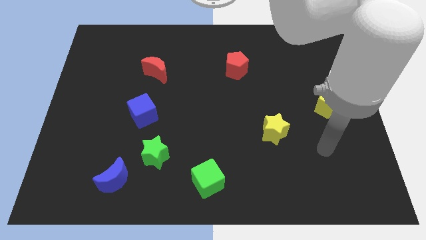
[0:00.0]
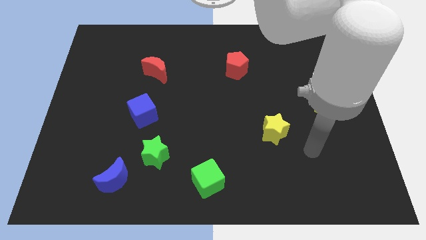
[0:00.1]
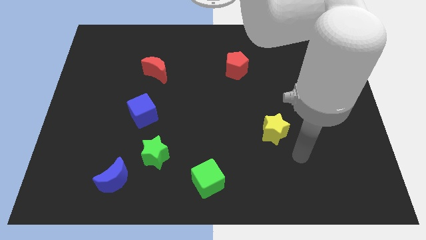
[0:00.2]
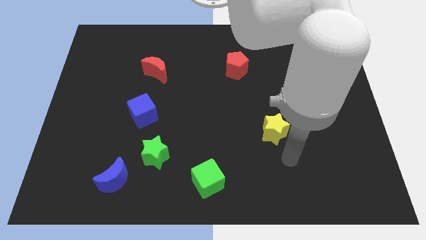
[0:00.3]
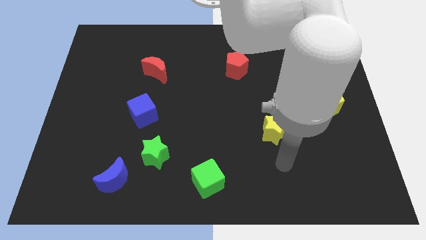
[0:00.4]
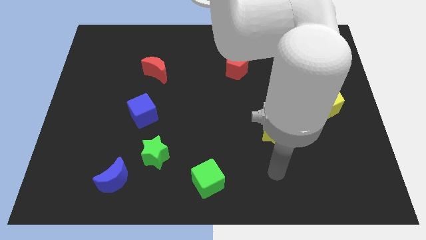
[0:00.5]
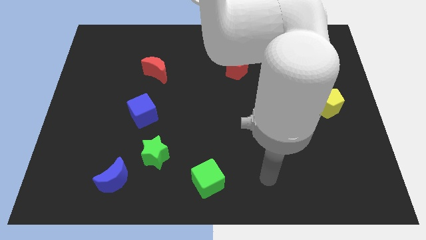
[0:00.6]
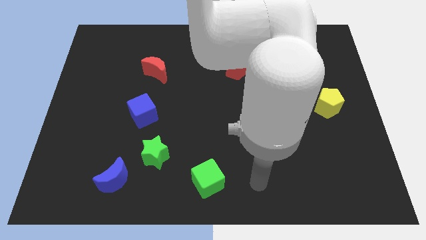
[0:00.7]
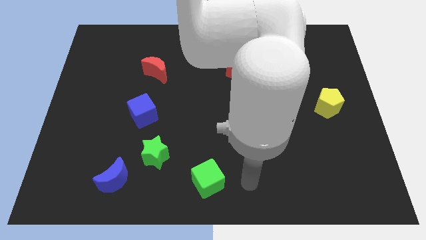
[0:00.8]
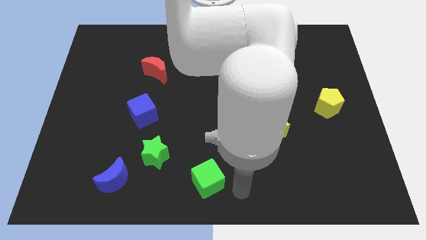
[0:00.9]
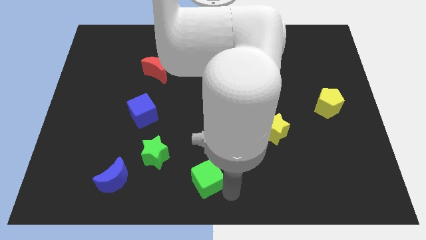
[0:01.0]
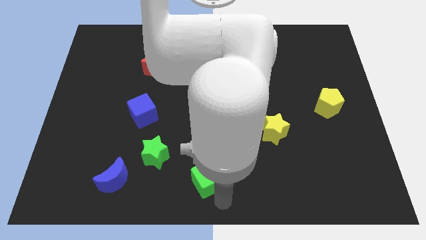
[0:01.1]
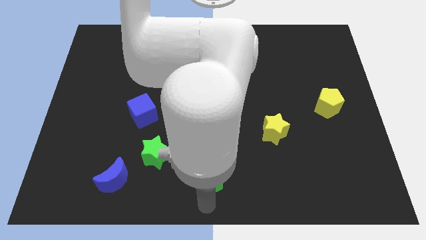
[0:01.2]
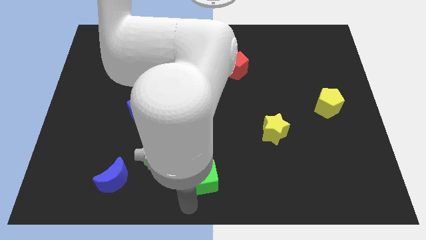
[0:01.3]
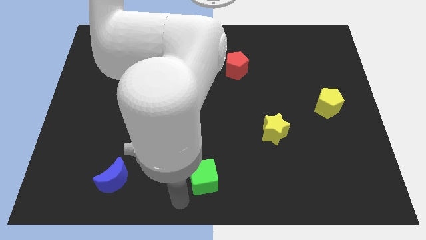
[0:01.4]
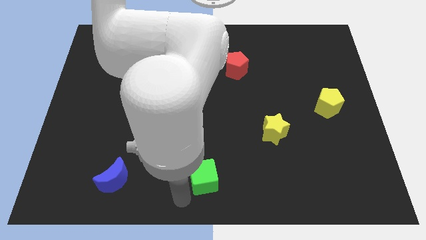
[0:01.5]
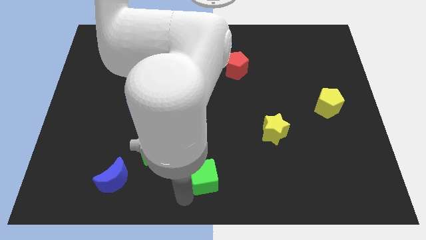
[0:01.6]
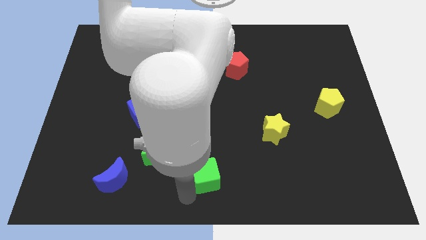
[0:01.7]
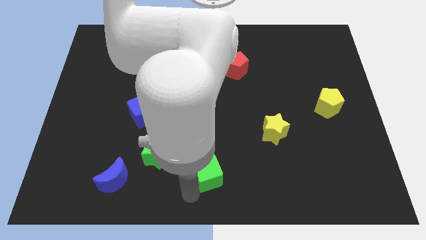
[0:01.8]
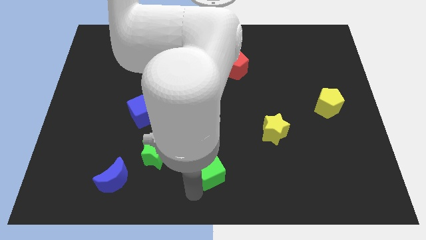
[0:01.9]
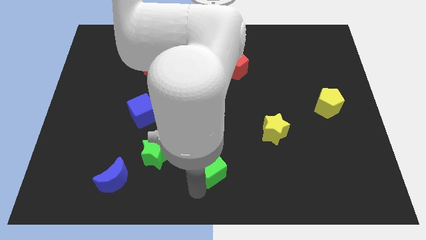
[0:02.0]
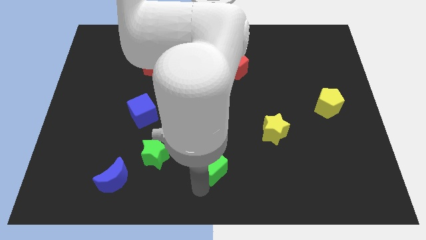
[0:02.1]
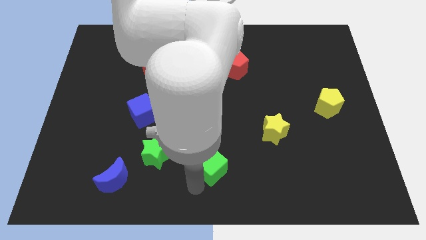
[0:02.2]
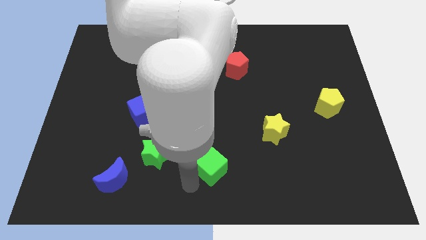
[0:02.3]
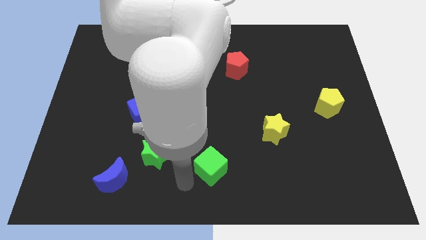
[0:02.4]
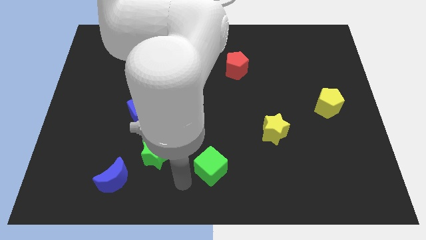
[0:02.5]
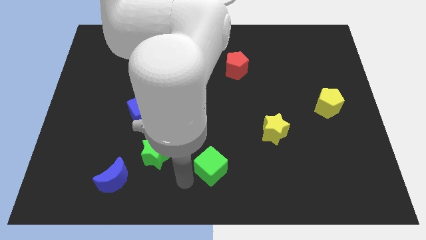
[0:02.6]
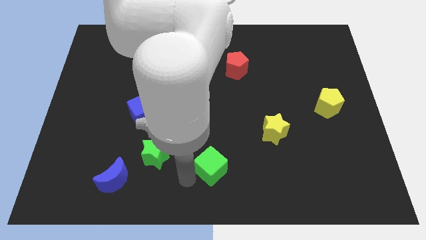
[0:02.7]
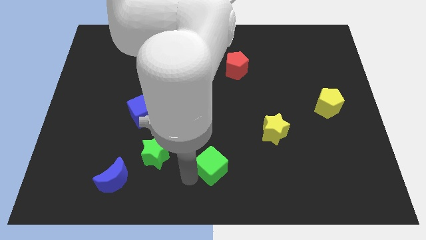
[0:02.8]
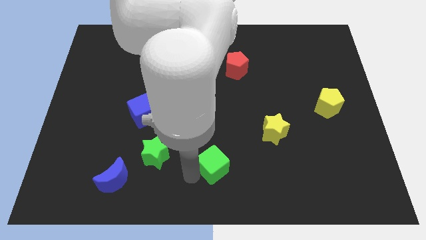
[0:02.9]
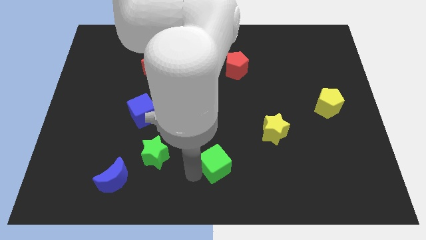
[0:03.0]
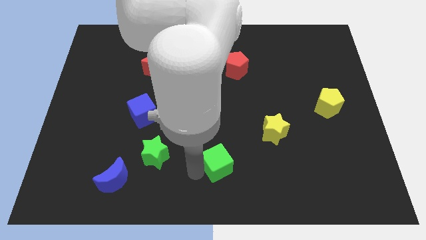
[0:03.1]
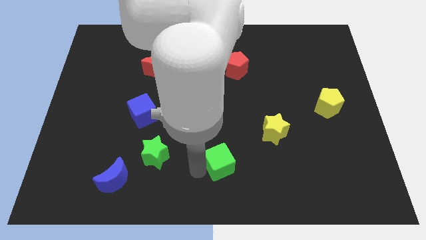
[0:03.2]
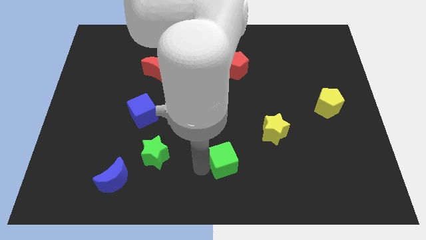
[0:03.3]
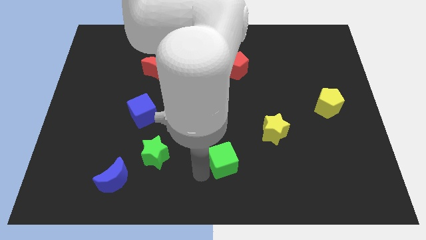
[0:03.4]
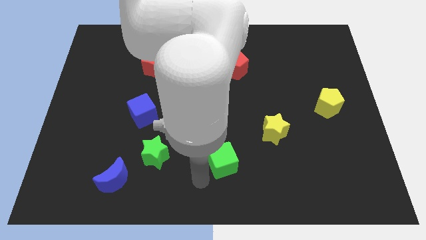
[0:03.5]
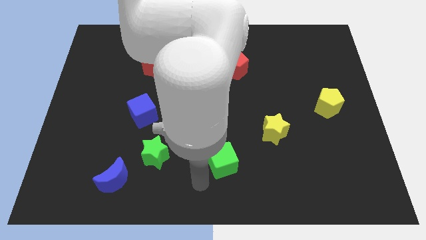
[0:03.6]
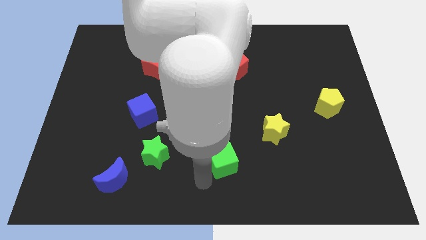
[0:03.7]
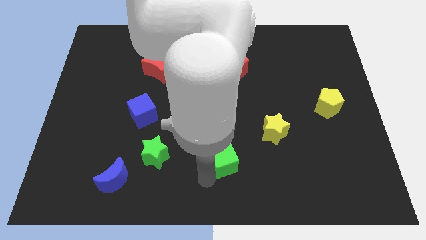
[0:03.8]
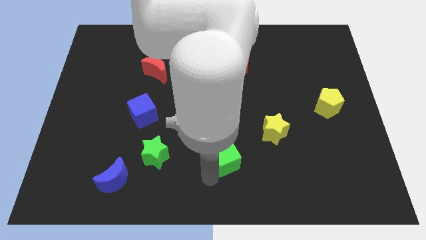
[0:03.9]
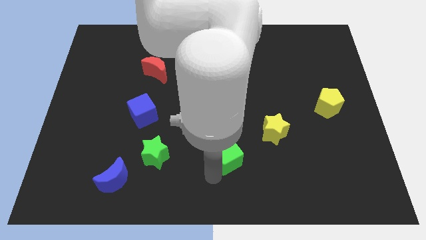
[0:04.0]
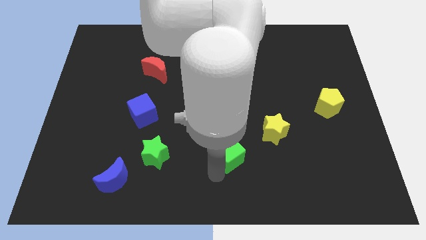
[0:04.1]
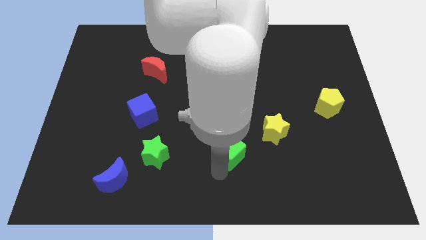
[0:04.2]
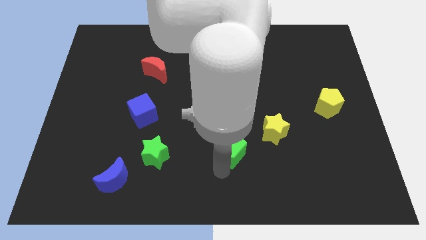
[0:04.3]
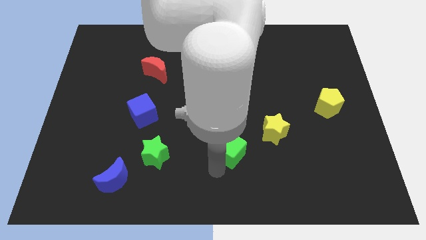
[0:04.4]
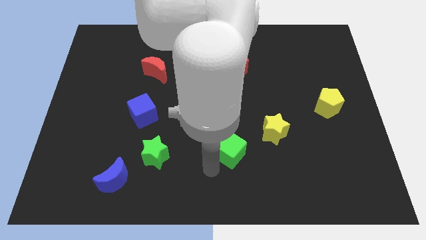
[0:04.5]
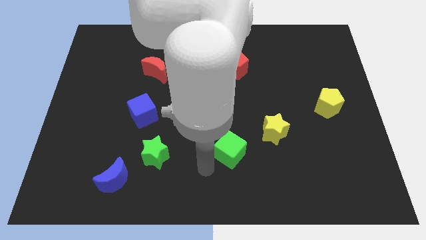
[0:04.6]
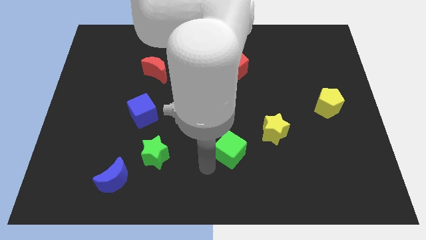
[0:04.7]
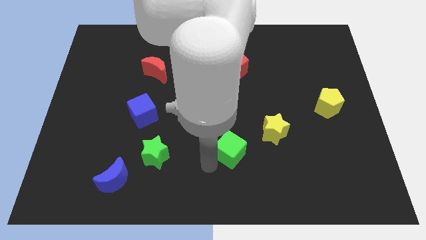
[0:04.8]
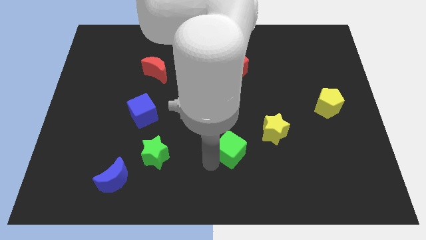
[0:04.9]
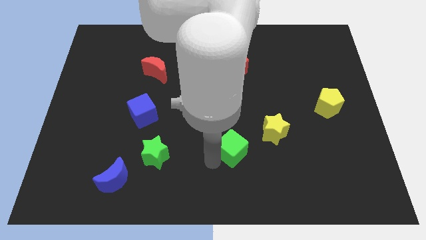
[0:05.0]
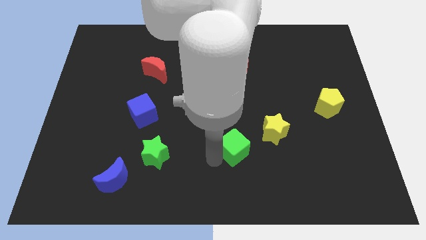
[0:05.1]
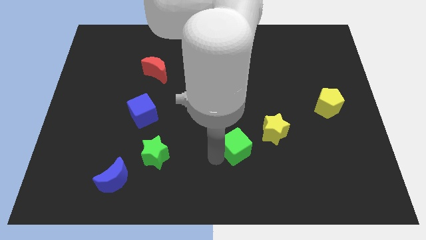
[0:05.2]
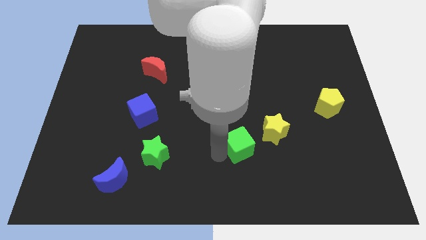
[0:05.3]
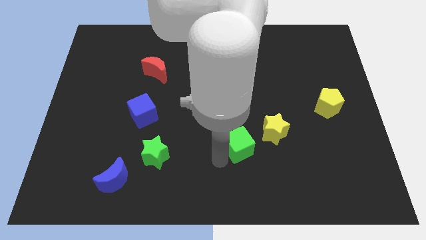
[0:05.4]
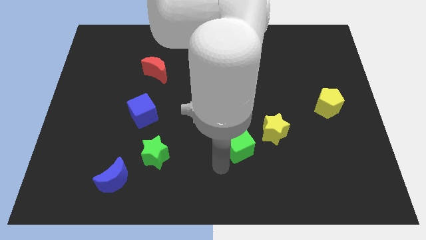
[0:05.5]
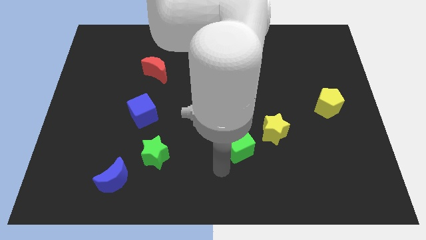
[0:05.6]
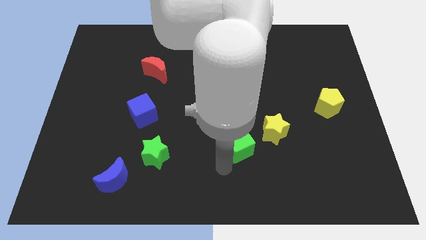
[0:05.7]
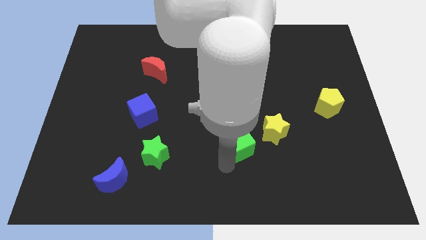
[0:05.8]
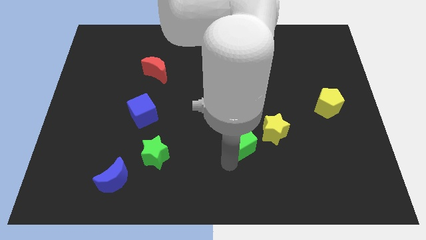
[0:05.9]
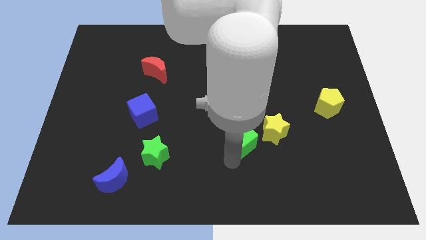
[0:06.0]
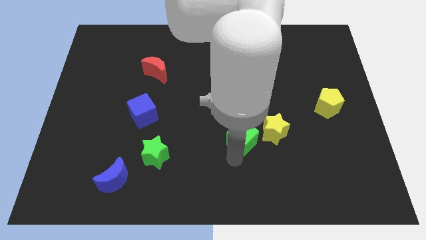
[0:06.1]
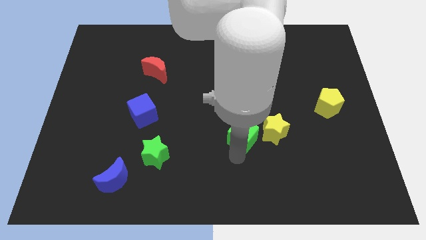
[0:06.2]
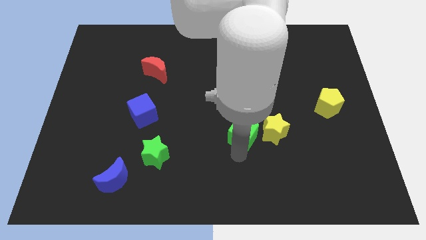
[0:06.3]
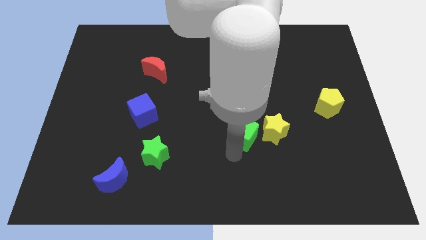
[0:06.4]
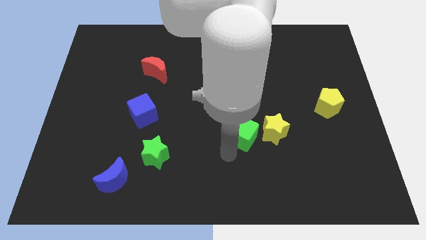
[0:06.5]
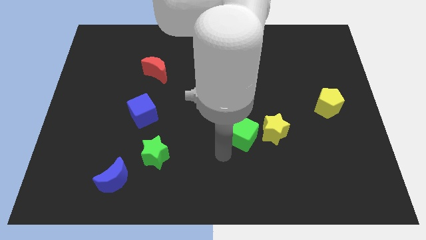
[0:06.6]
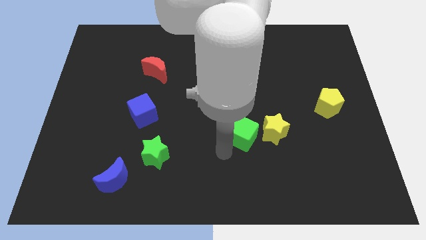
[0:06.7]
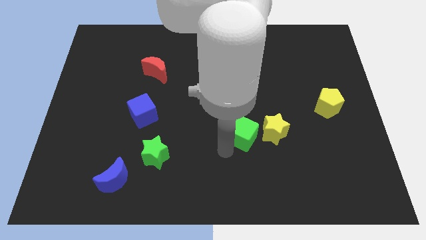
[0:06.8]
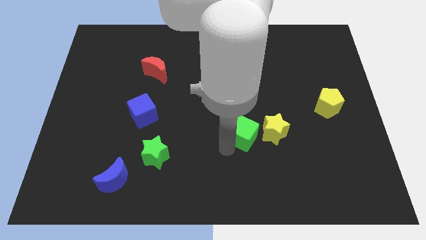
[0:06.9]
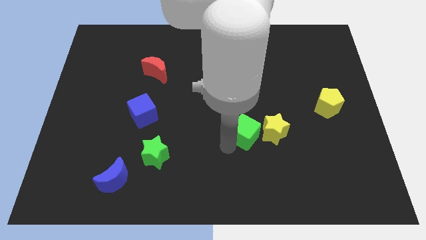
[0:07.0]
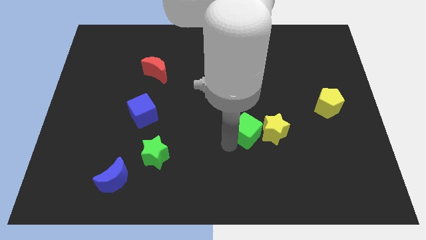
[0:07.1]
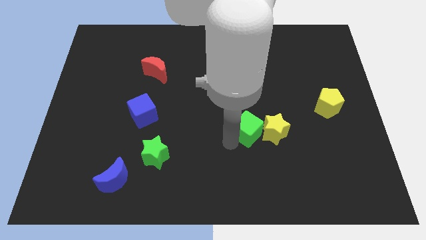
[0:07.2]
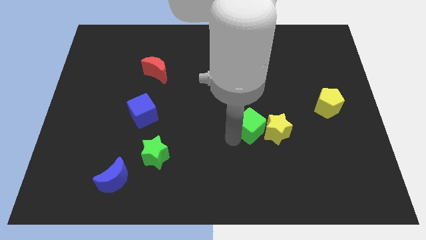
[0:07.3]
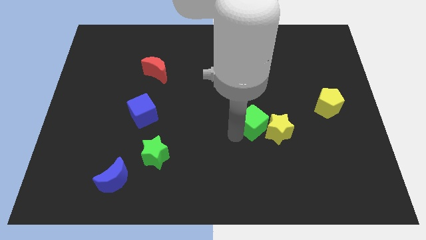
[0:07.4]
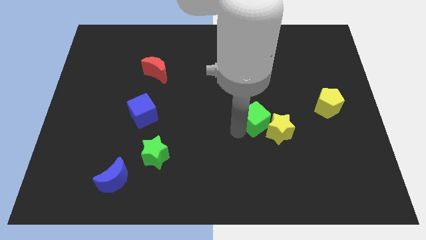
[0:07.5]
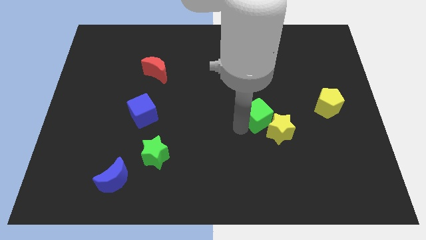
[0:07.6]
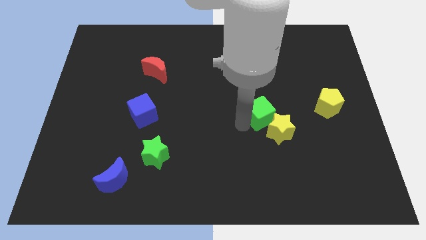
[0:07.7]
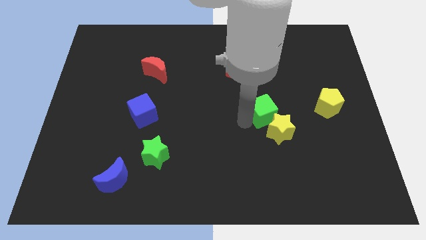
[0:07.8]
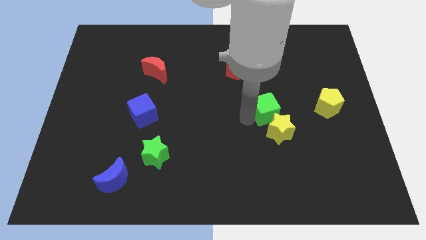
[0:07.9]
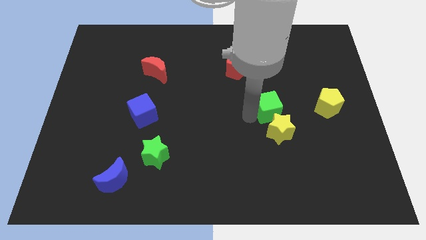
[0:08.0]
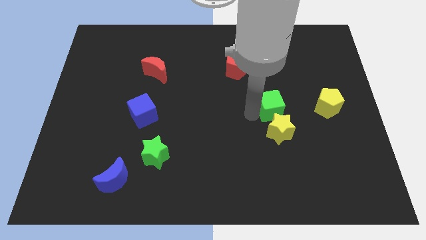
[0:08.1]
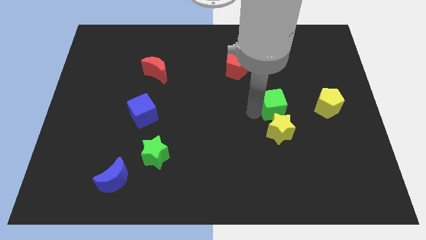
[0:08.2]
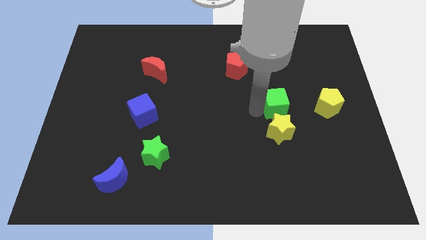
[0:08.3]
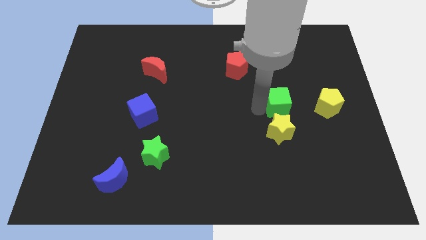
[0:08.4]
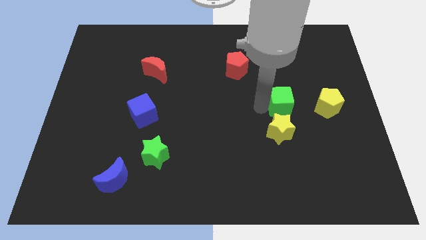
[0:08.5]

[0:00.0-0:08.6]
put the green cube to the top right side of the yellow star
